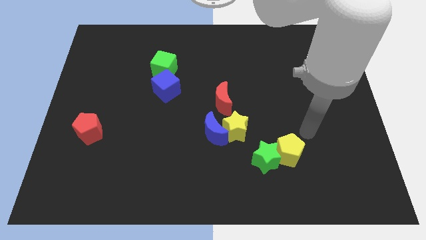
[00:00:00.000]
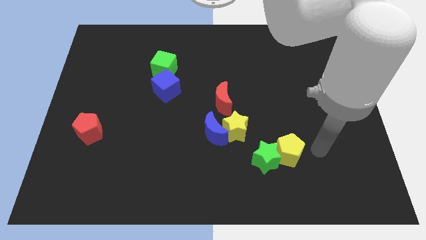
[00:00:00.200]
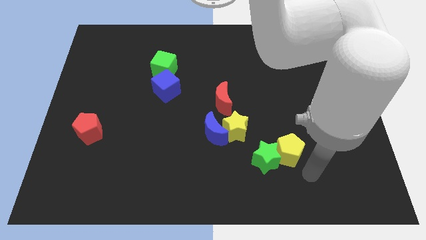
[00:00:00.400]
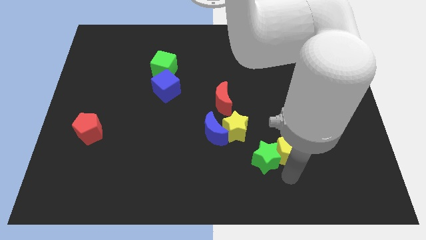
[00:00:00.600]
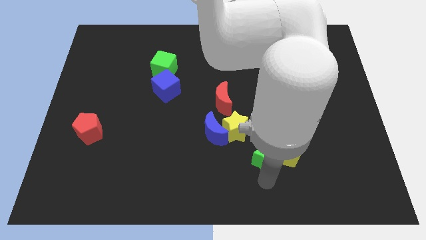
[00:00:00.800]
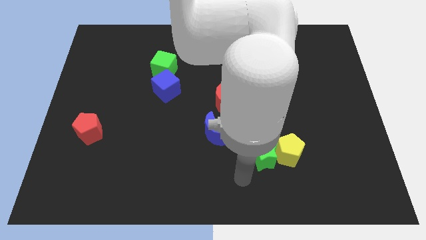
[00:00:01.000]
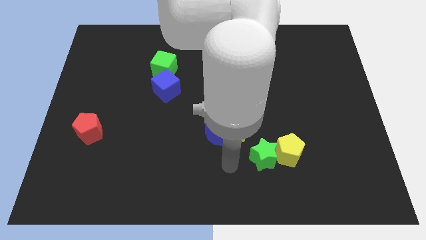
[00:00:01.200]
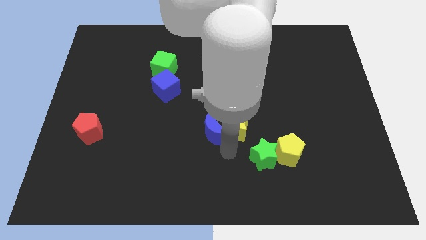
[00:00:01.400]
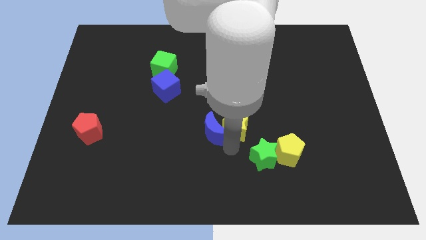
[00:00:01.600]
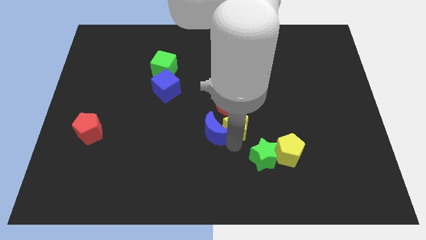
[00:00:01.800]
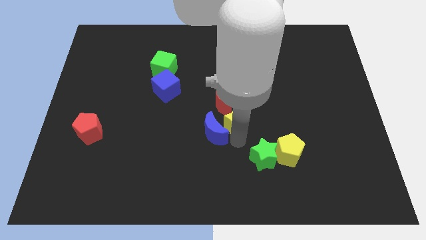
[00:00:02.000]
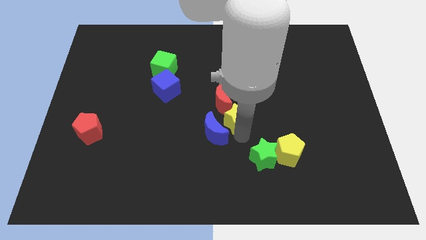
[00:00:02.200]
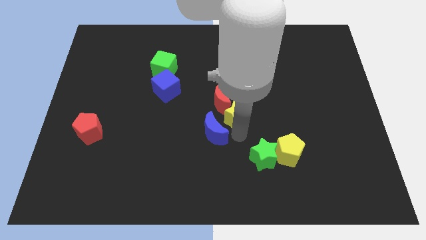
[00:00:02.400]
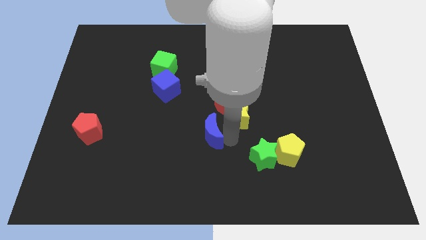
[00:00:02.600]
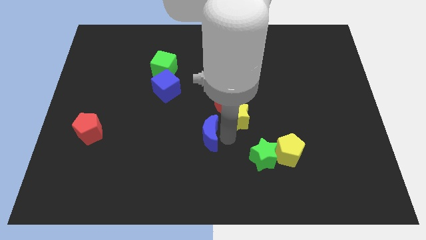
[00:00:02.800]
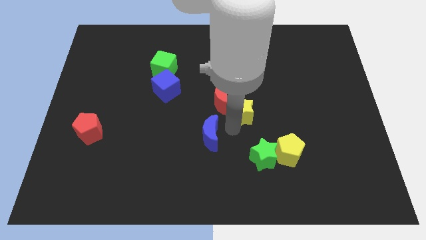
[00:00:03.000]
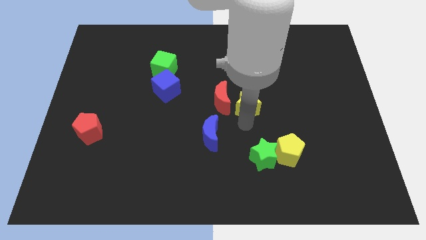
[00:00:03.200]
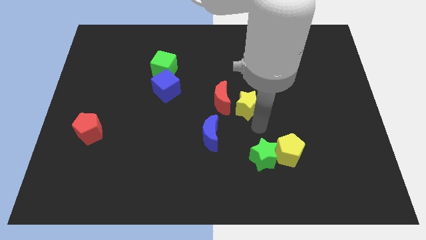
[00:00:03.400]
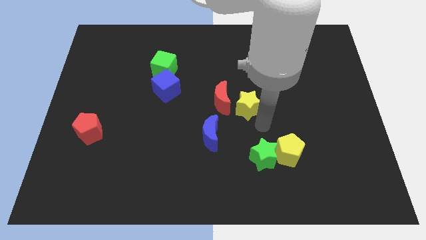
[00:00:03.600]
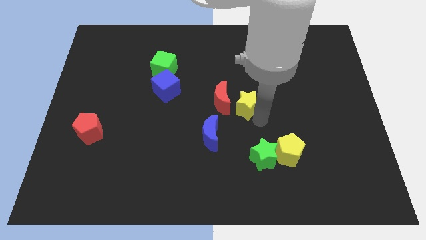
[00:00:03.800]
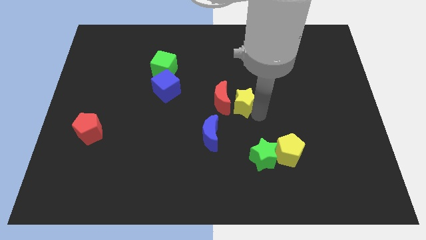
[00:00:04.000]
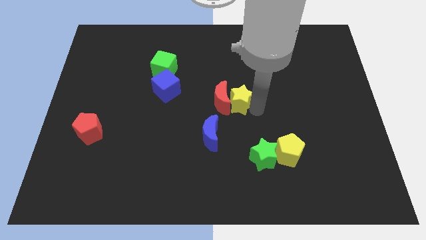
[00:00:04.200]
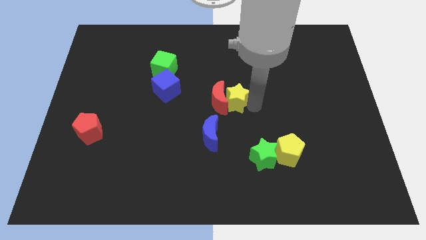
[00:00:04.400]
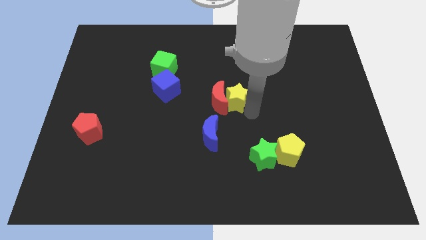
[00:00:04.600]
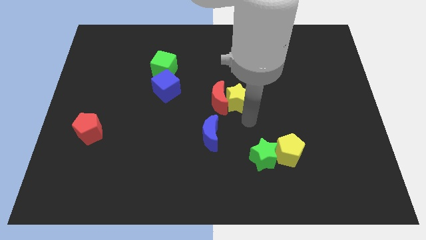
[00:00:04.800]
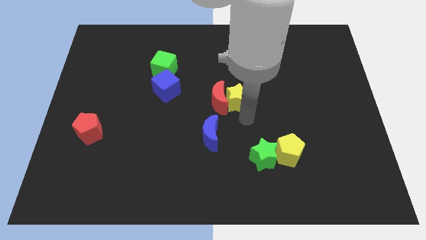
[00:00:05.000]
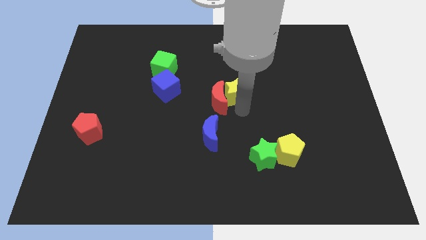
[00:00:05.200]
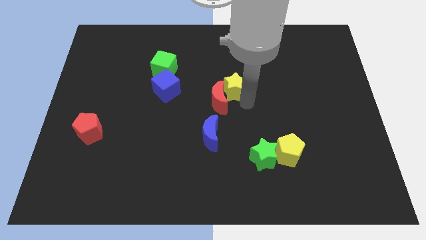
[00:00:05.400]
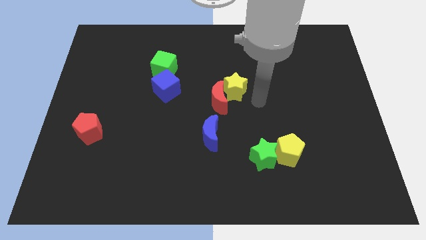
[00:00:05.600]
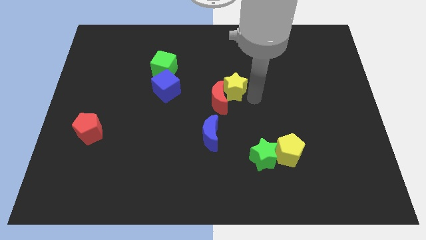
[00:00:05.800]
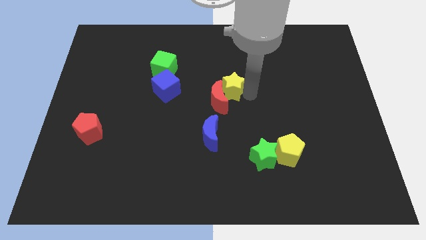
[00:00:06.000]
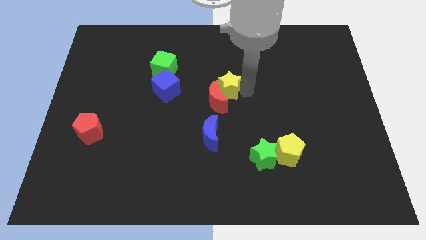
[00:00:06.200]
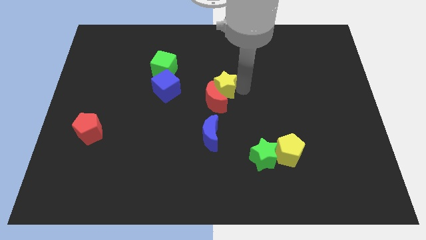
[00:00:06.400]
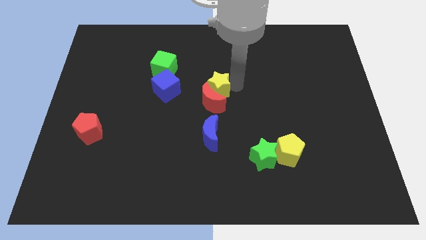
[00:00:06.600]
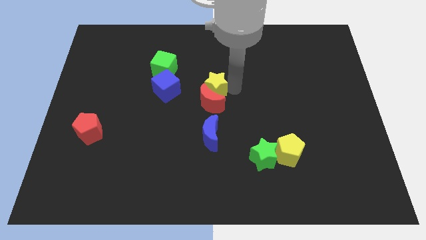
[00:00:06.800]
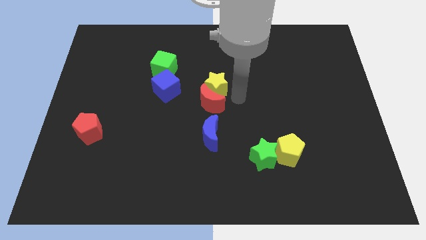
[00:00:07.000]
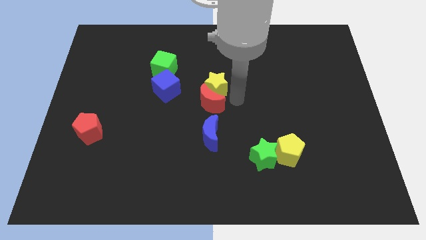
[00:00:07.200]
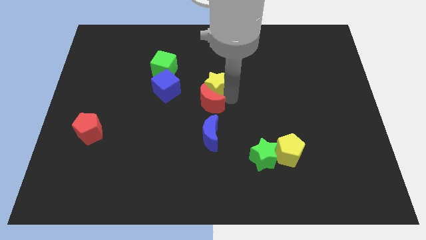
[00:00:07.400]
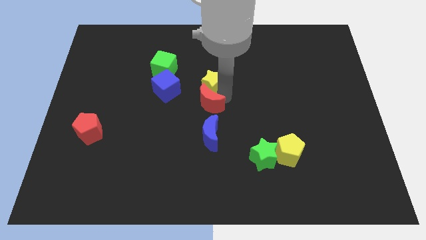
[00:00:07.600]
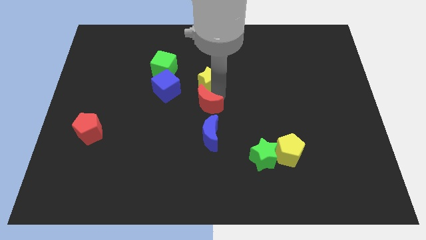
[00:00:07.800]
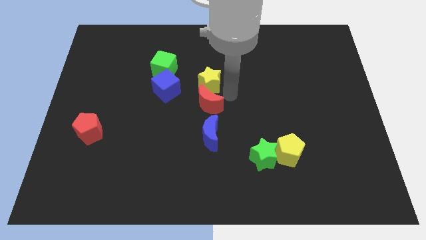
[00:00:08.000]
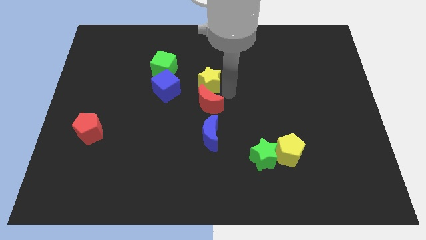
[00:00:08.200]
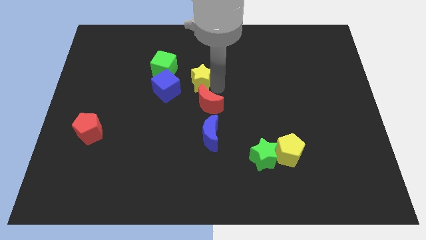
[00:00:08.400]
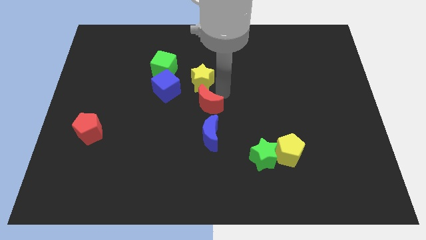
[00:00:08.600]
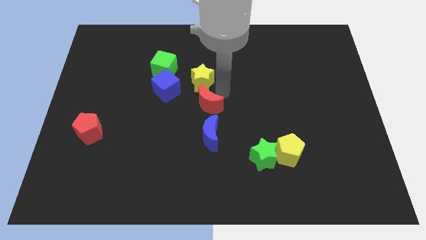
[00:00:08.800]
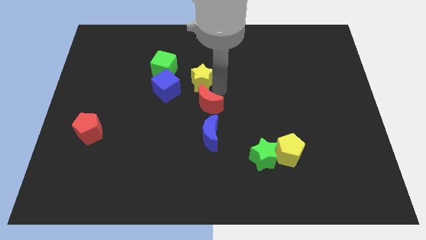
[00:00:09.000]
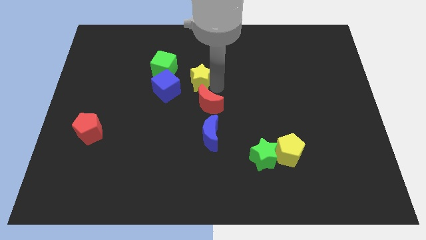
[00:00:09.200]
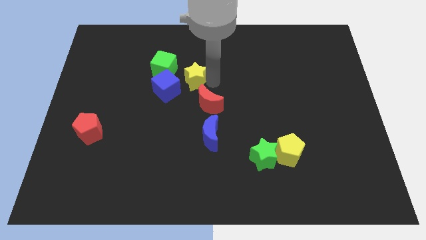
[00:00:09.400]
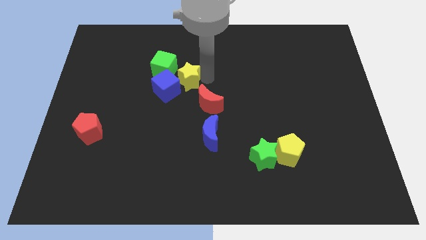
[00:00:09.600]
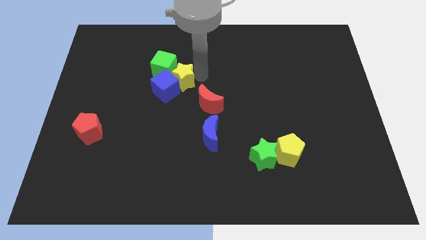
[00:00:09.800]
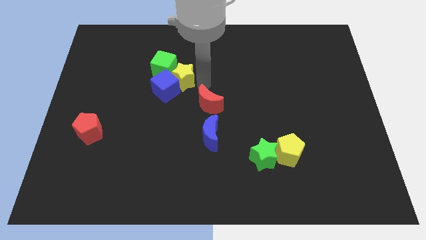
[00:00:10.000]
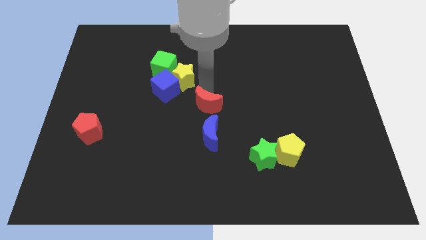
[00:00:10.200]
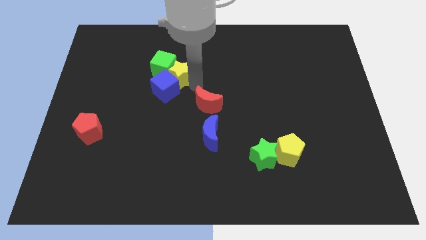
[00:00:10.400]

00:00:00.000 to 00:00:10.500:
put the yellow star towards the green cube

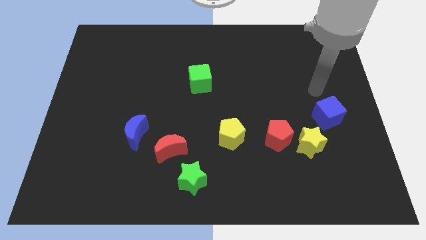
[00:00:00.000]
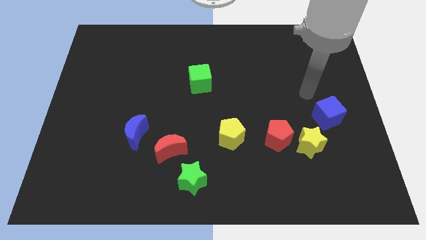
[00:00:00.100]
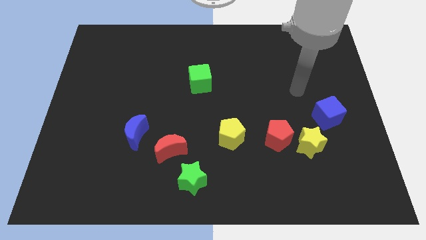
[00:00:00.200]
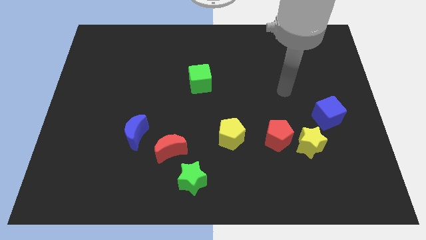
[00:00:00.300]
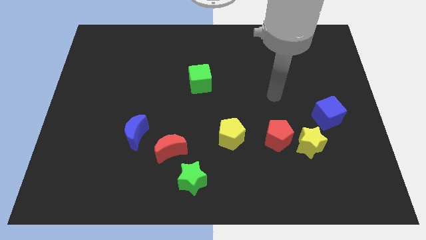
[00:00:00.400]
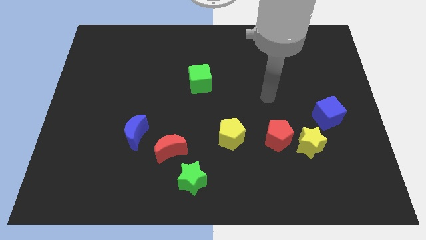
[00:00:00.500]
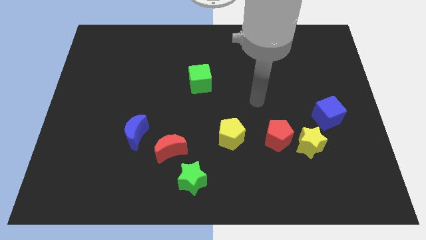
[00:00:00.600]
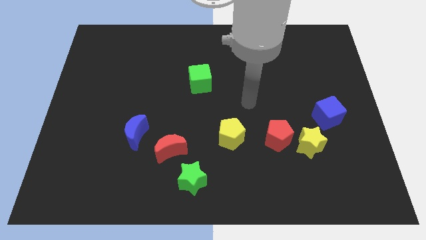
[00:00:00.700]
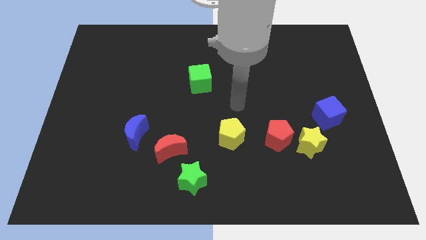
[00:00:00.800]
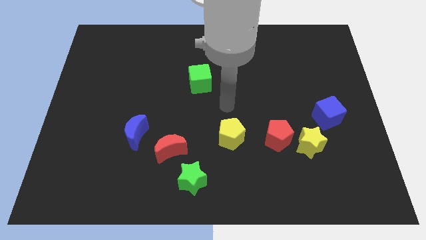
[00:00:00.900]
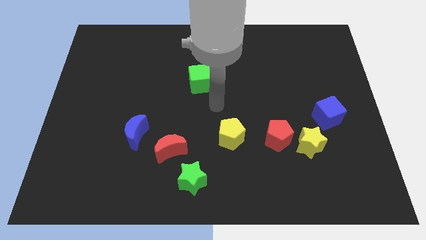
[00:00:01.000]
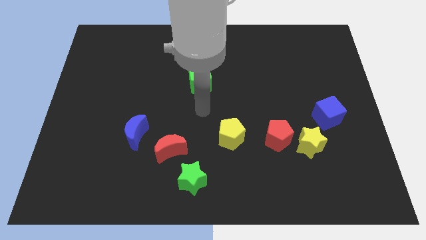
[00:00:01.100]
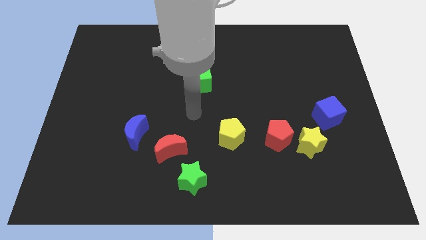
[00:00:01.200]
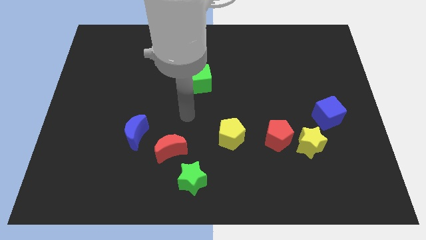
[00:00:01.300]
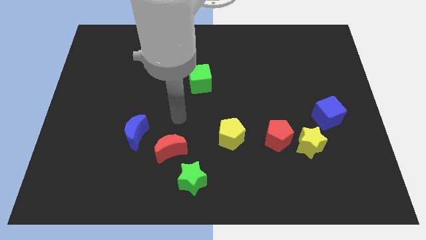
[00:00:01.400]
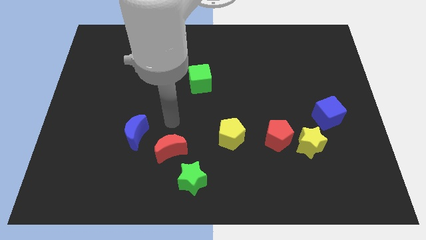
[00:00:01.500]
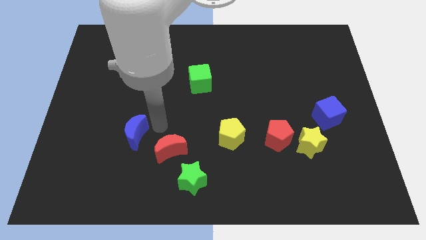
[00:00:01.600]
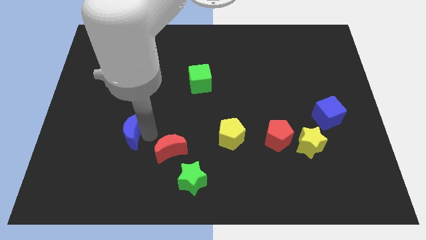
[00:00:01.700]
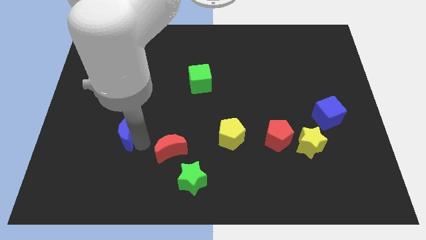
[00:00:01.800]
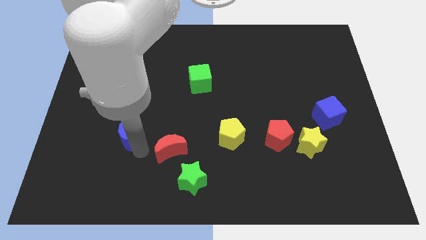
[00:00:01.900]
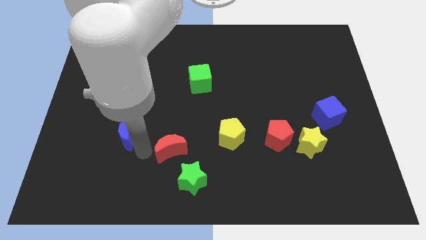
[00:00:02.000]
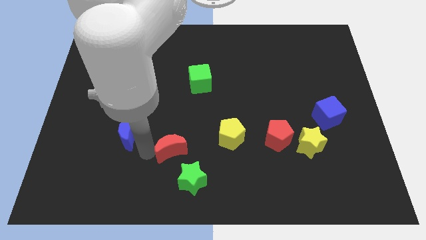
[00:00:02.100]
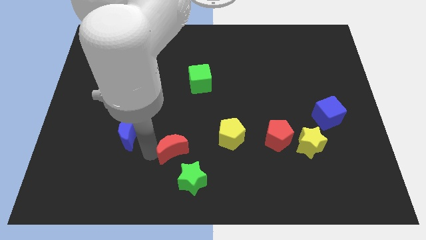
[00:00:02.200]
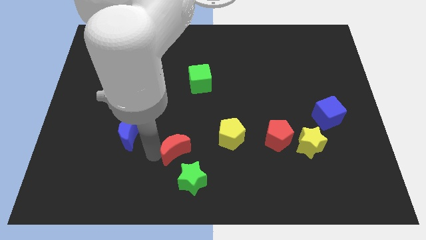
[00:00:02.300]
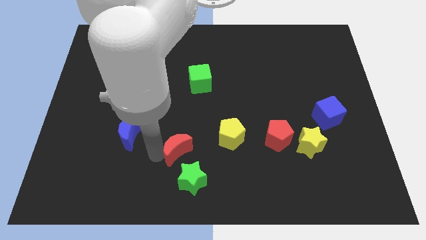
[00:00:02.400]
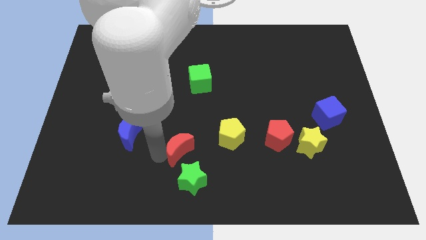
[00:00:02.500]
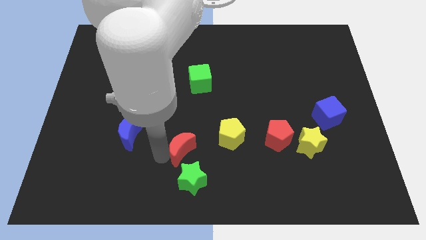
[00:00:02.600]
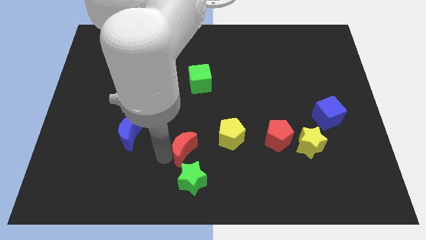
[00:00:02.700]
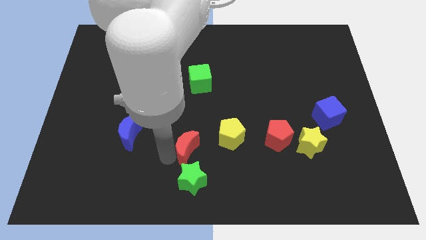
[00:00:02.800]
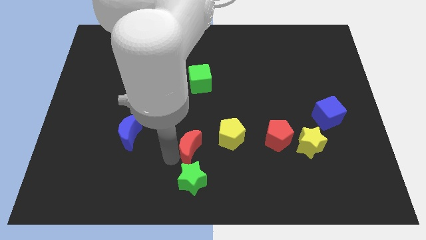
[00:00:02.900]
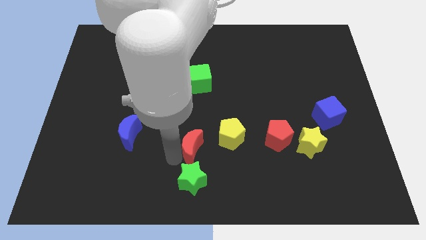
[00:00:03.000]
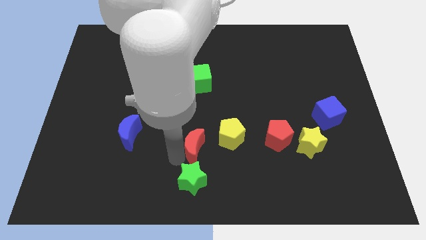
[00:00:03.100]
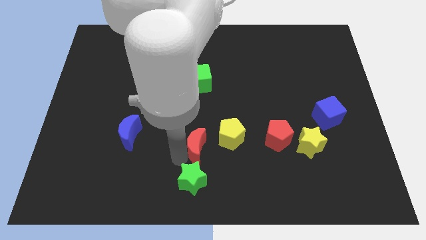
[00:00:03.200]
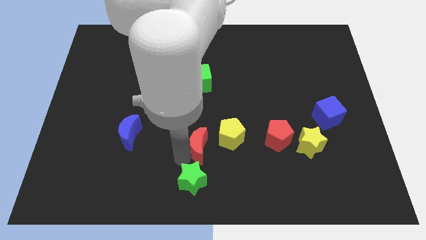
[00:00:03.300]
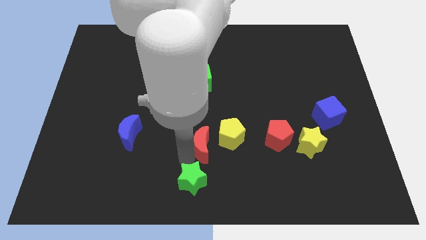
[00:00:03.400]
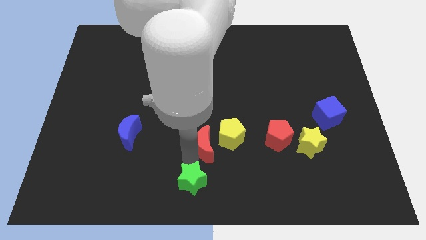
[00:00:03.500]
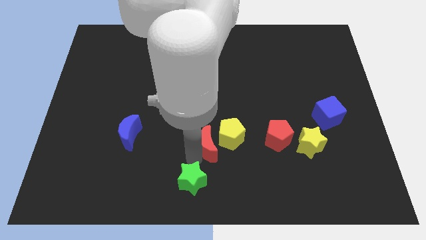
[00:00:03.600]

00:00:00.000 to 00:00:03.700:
push the red moon close to the yellow pentagon
